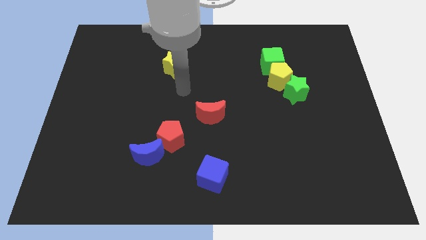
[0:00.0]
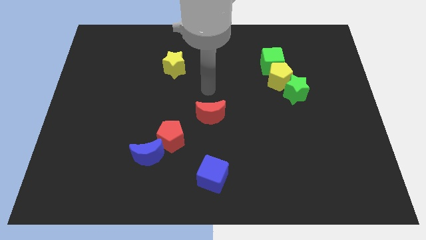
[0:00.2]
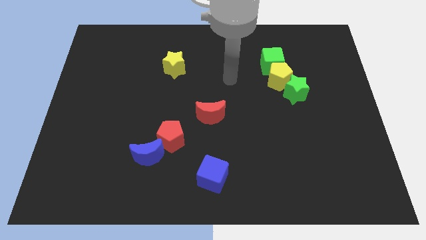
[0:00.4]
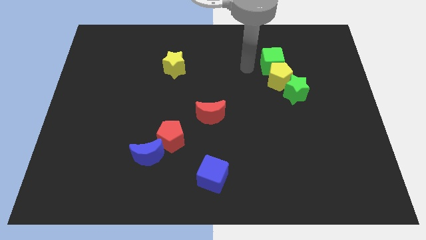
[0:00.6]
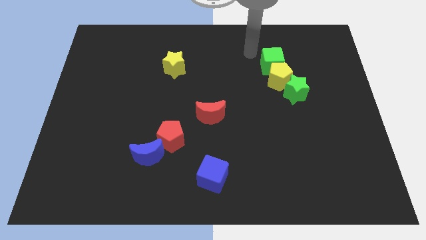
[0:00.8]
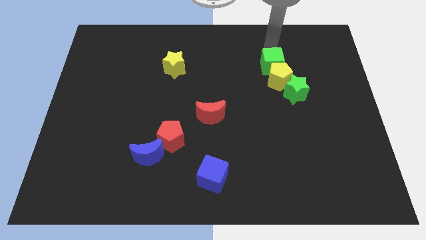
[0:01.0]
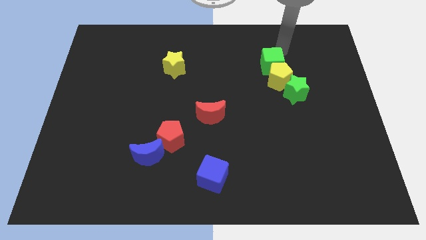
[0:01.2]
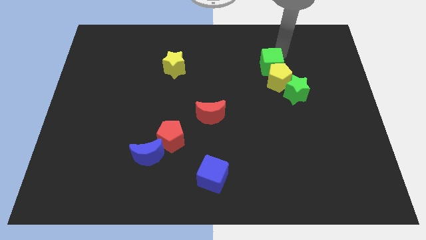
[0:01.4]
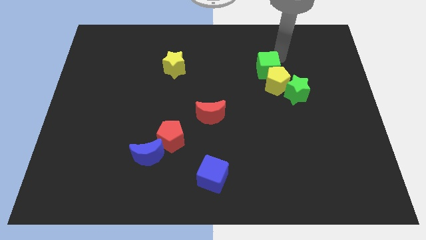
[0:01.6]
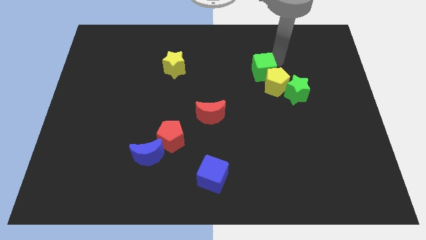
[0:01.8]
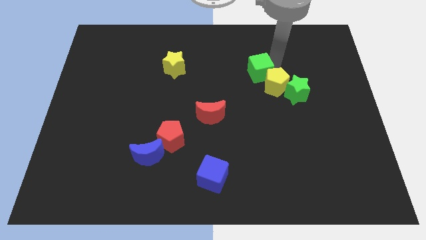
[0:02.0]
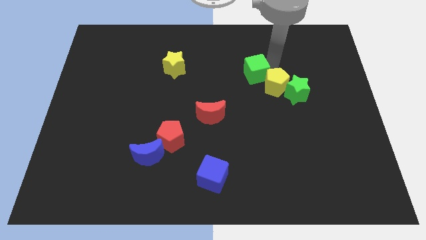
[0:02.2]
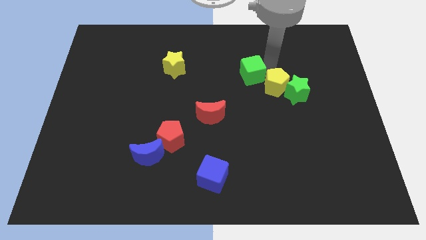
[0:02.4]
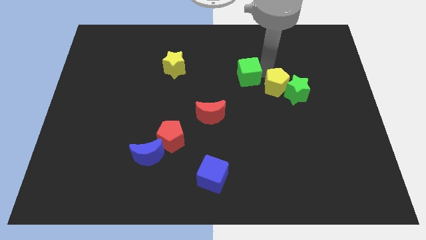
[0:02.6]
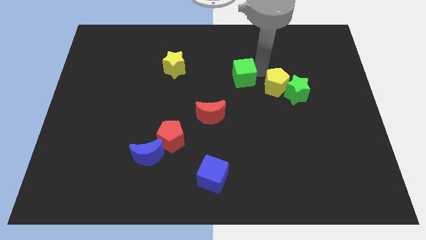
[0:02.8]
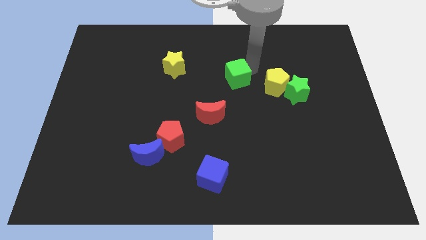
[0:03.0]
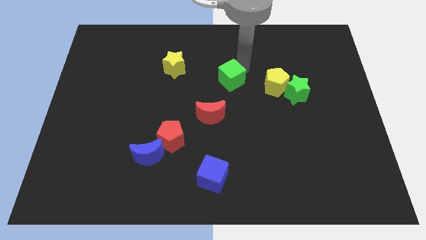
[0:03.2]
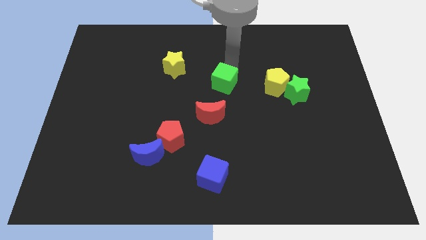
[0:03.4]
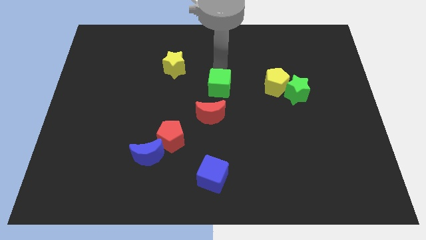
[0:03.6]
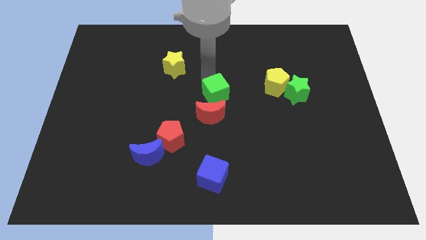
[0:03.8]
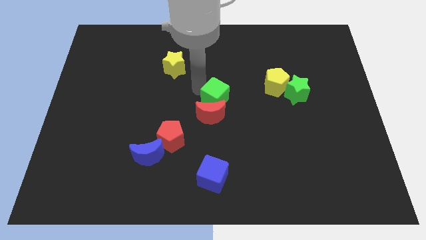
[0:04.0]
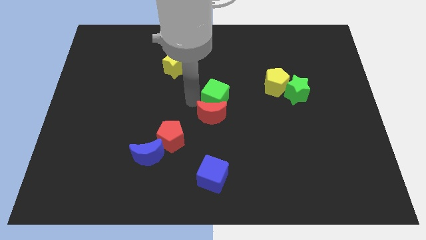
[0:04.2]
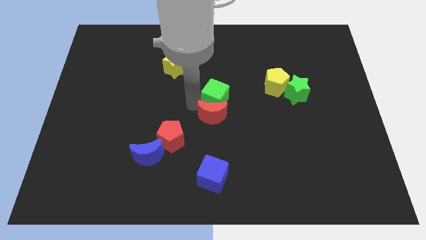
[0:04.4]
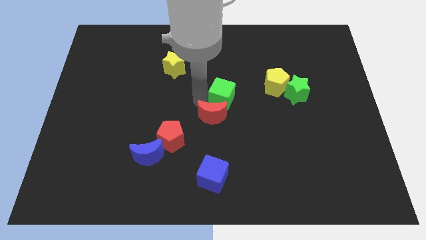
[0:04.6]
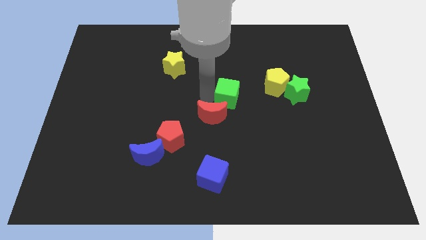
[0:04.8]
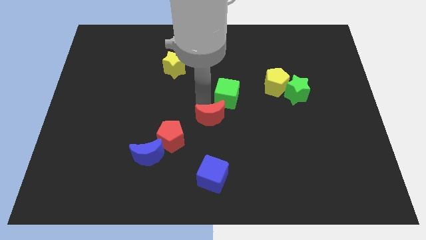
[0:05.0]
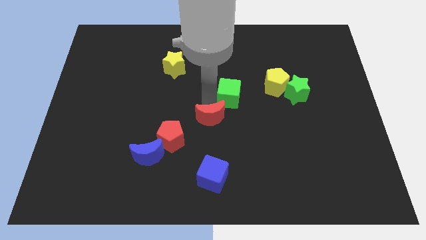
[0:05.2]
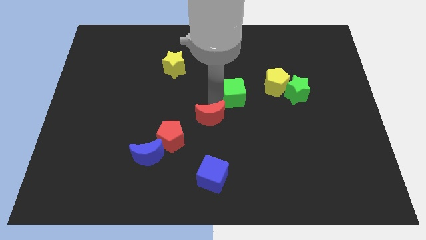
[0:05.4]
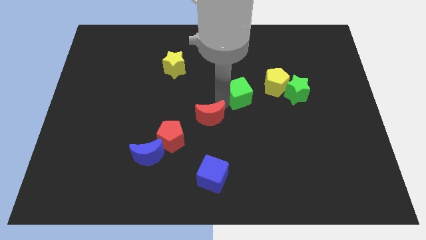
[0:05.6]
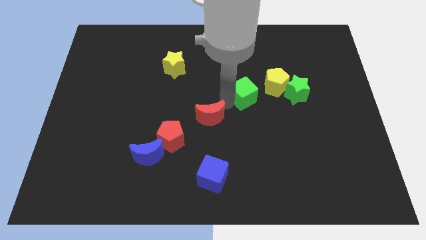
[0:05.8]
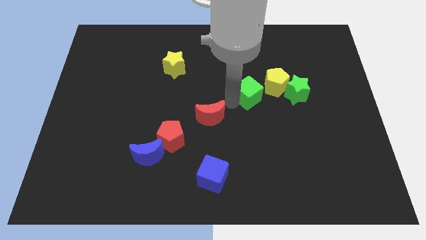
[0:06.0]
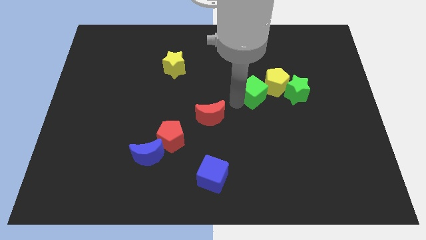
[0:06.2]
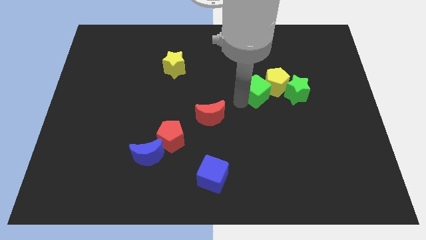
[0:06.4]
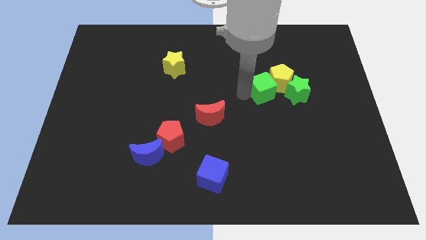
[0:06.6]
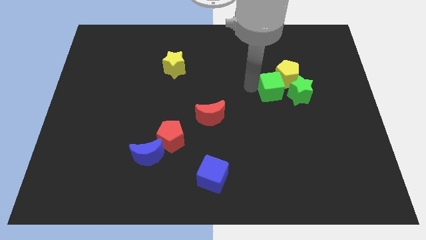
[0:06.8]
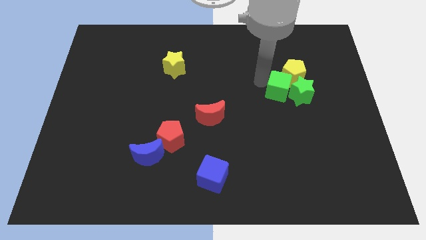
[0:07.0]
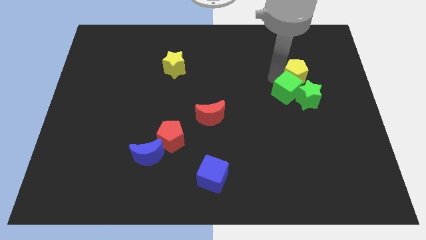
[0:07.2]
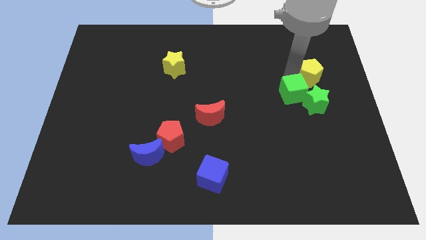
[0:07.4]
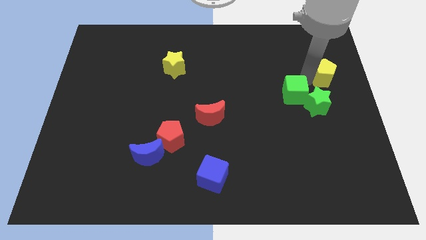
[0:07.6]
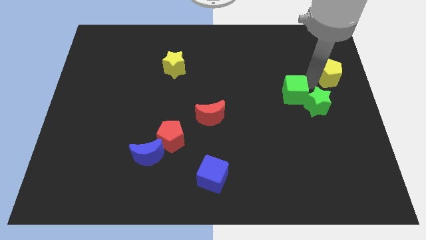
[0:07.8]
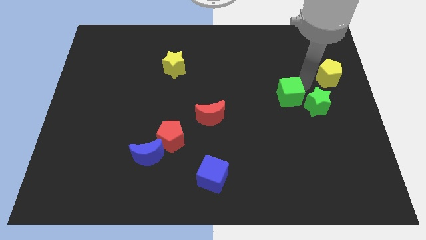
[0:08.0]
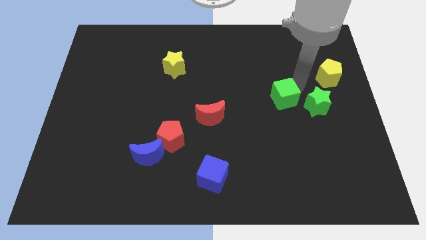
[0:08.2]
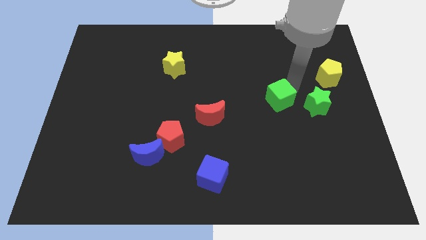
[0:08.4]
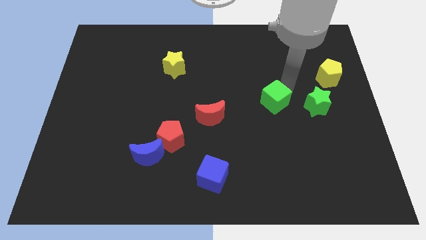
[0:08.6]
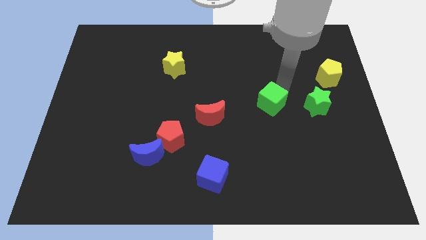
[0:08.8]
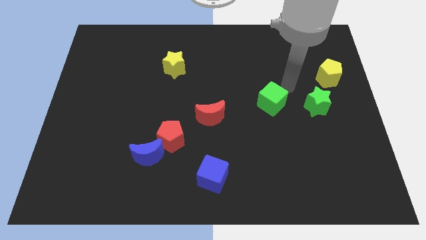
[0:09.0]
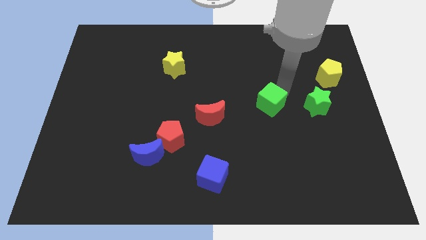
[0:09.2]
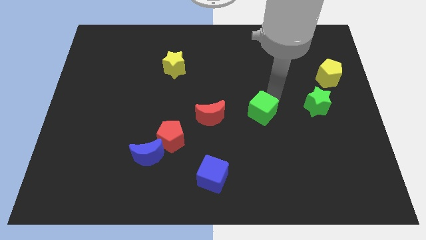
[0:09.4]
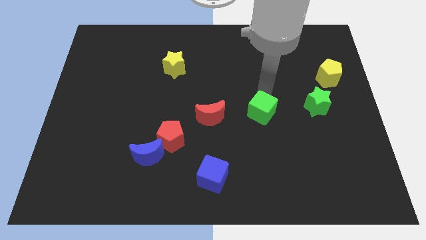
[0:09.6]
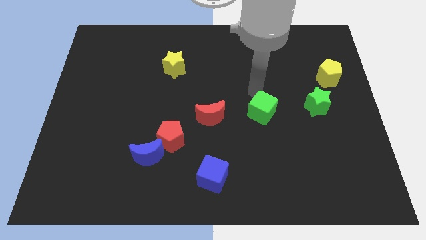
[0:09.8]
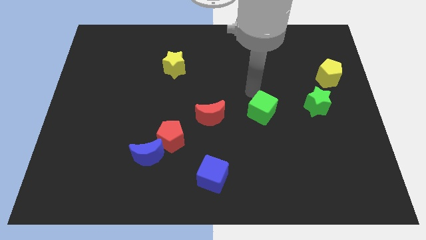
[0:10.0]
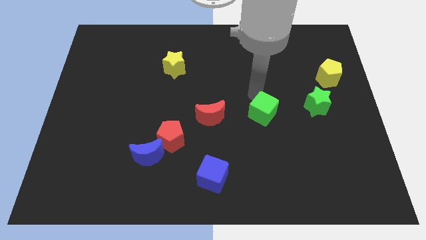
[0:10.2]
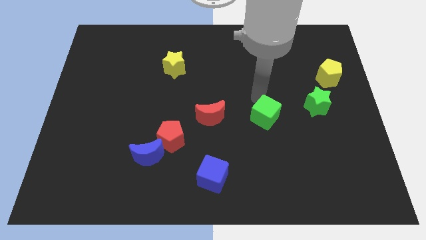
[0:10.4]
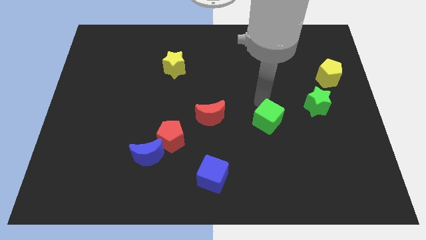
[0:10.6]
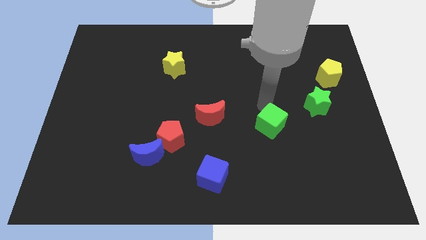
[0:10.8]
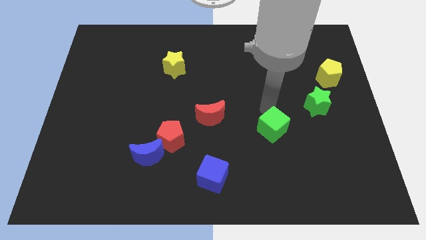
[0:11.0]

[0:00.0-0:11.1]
push the green cube downwards

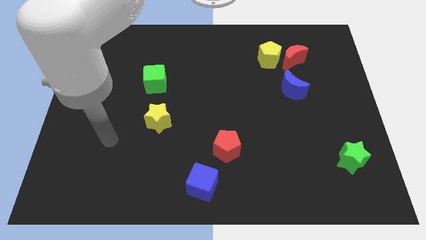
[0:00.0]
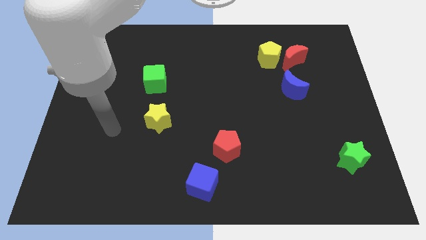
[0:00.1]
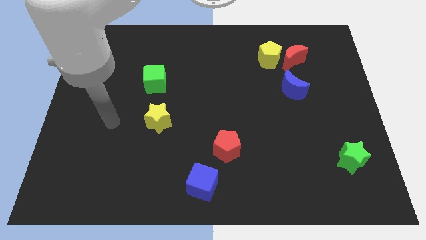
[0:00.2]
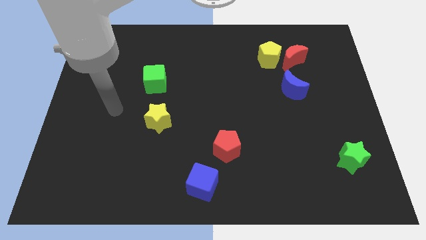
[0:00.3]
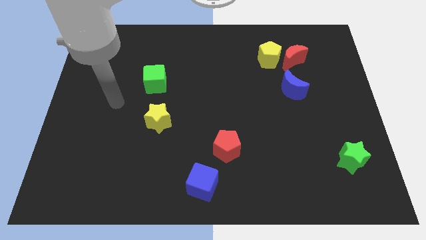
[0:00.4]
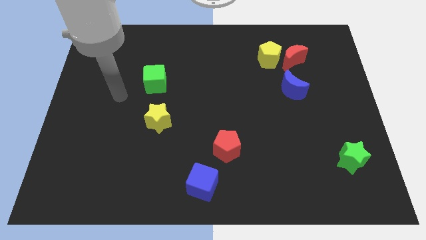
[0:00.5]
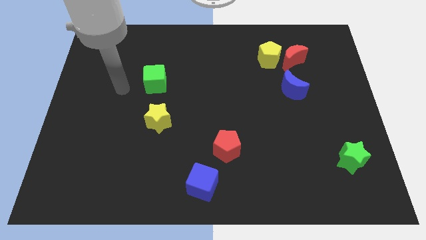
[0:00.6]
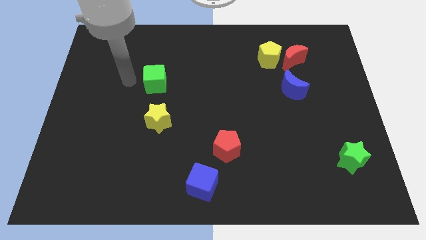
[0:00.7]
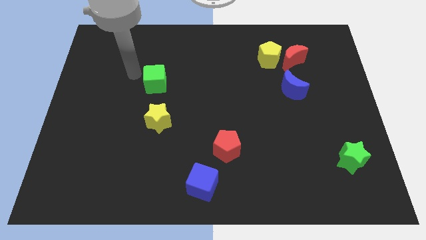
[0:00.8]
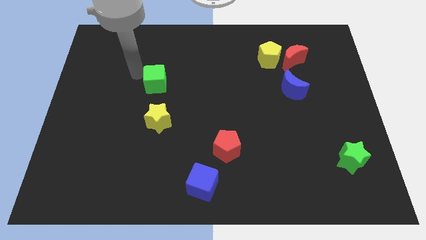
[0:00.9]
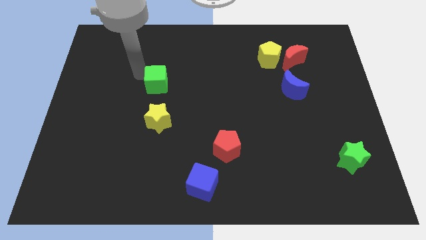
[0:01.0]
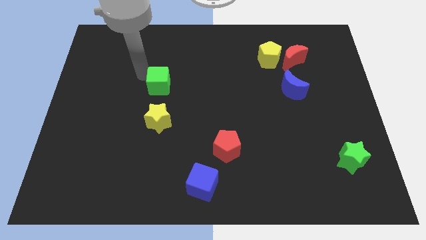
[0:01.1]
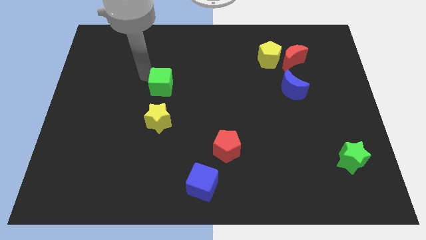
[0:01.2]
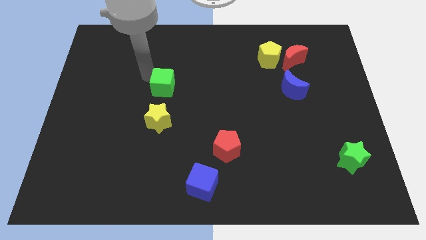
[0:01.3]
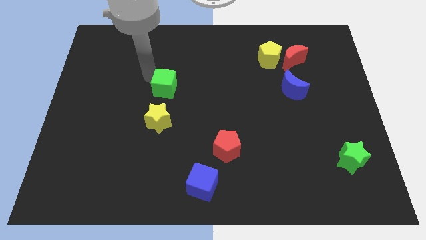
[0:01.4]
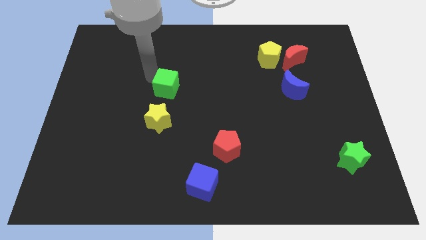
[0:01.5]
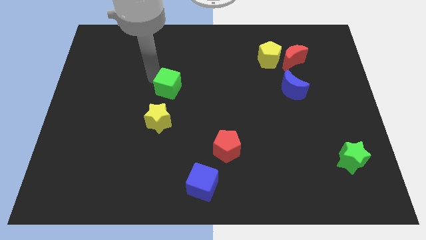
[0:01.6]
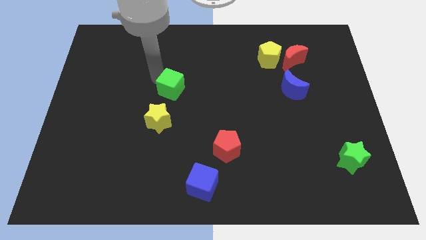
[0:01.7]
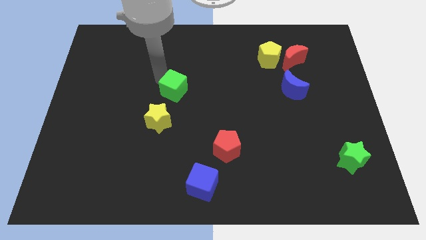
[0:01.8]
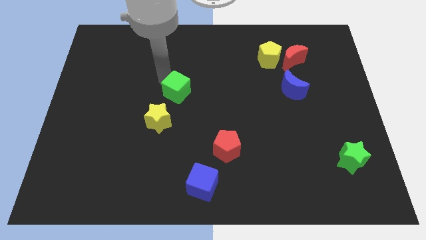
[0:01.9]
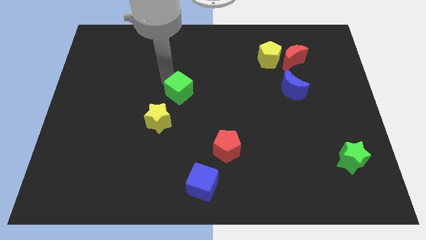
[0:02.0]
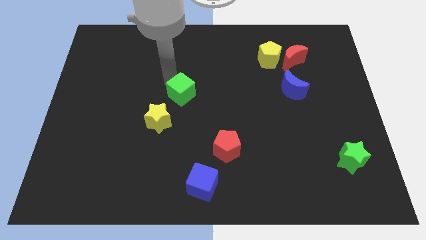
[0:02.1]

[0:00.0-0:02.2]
move the green cube downwards and then right somewhat
